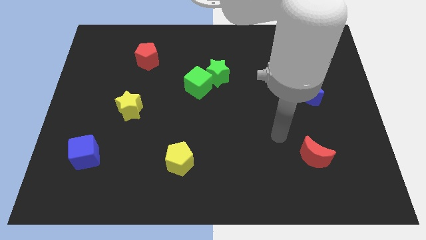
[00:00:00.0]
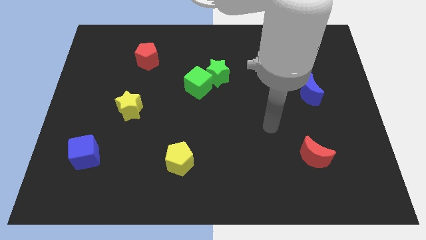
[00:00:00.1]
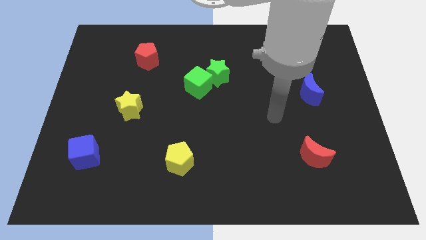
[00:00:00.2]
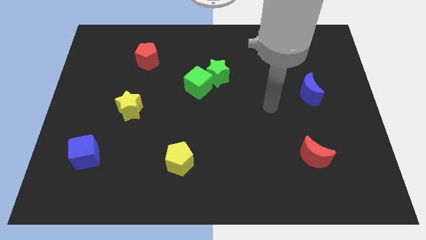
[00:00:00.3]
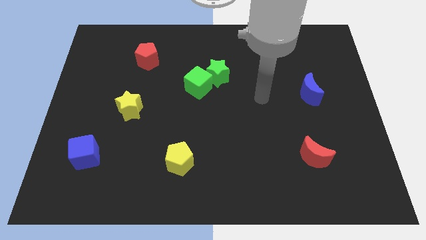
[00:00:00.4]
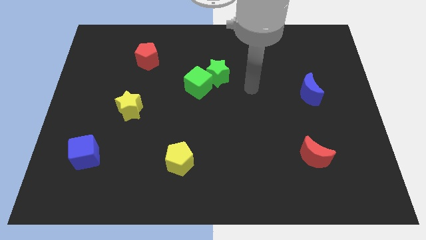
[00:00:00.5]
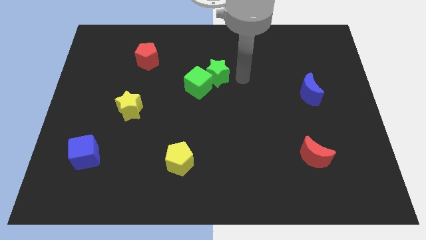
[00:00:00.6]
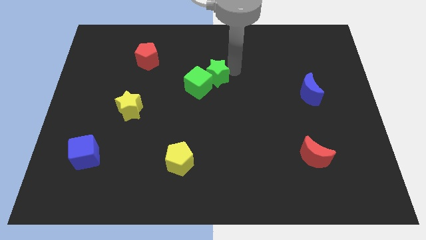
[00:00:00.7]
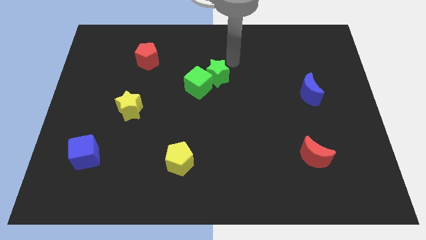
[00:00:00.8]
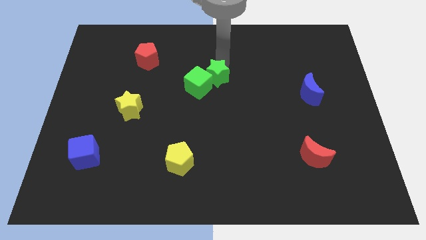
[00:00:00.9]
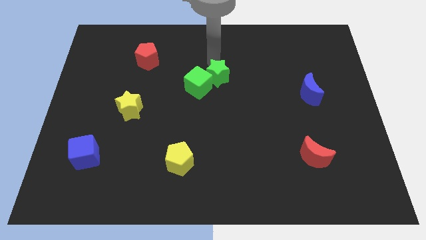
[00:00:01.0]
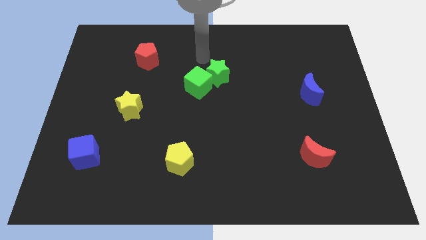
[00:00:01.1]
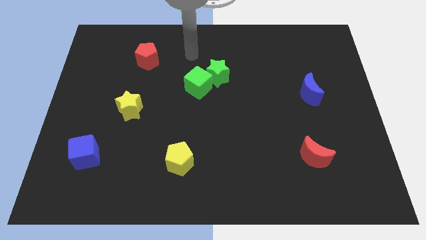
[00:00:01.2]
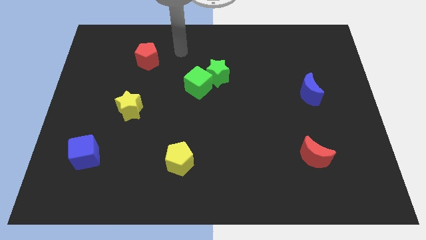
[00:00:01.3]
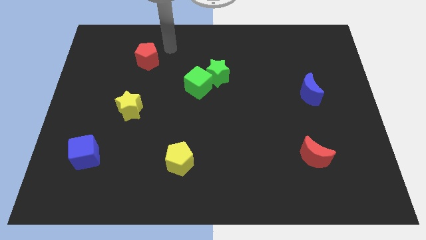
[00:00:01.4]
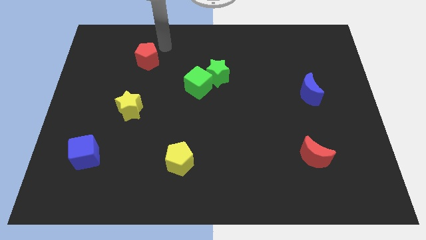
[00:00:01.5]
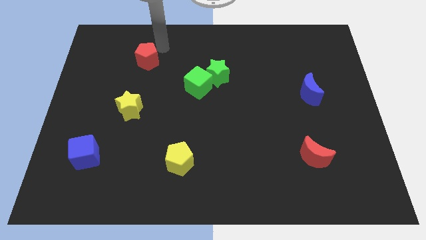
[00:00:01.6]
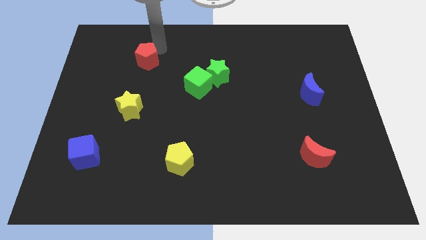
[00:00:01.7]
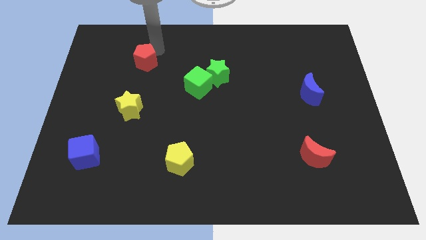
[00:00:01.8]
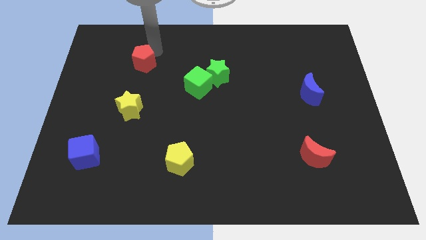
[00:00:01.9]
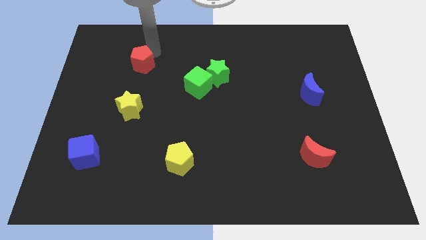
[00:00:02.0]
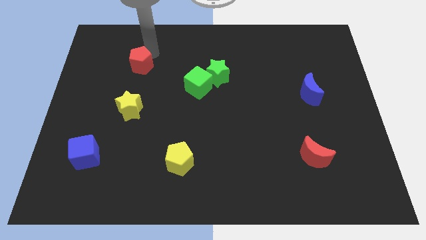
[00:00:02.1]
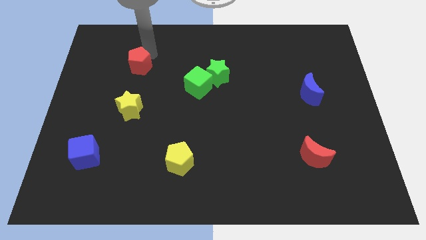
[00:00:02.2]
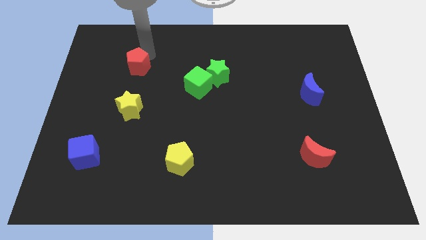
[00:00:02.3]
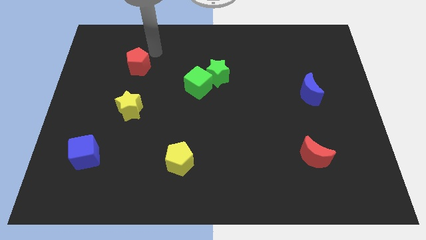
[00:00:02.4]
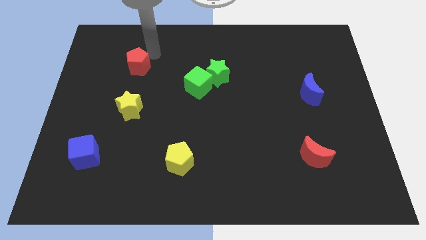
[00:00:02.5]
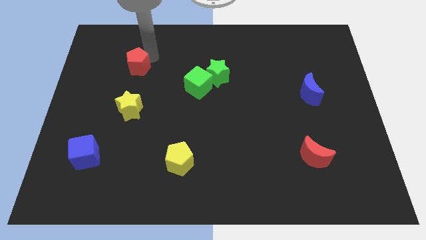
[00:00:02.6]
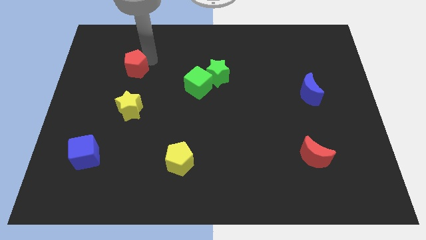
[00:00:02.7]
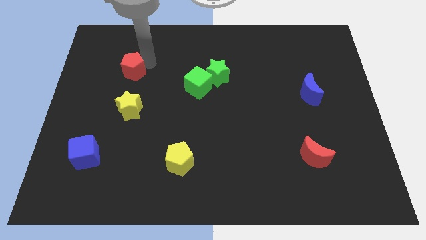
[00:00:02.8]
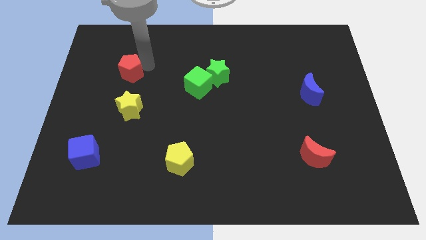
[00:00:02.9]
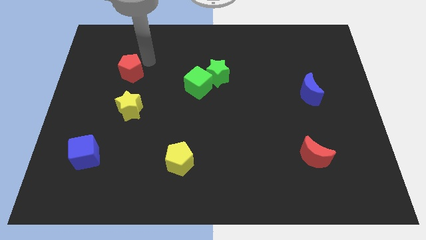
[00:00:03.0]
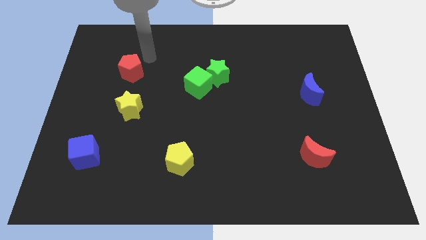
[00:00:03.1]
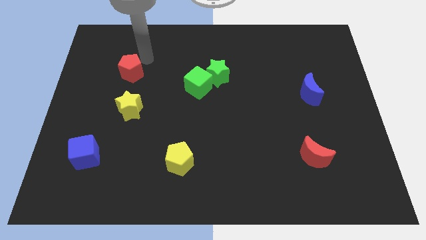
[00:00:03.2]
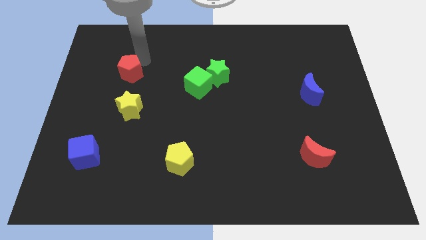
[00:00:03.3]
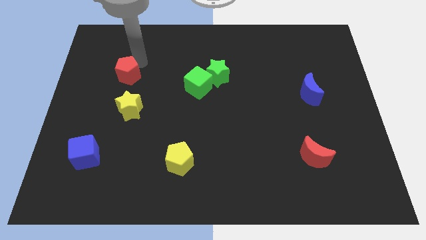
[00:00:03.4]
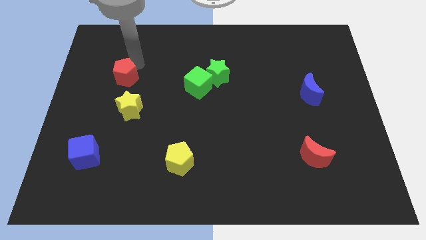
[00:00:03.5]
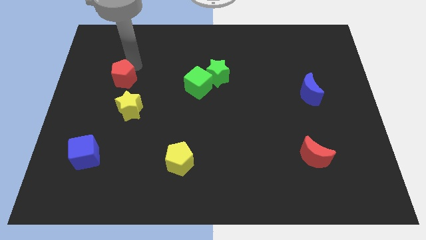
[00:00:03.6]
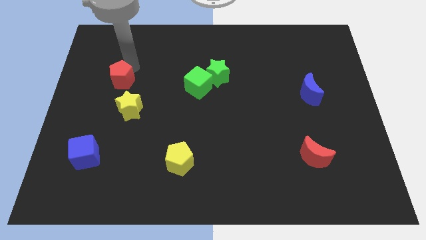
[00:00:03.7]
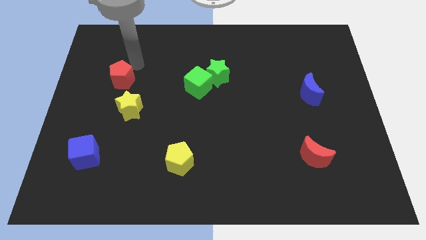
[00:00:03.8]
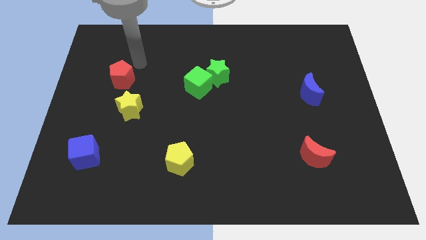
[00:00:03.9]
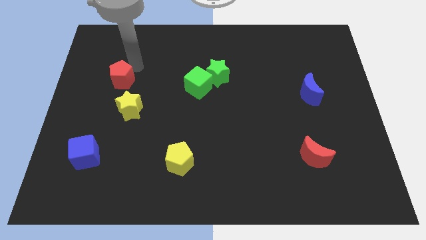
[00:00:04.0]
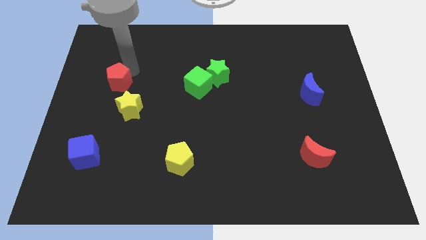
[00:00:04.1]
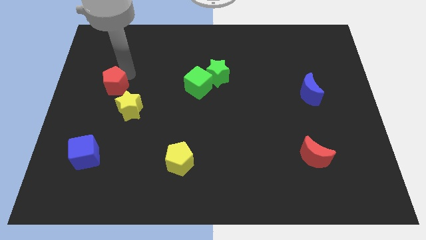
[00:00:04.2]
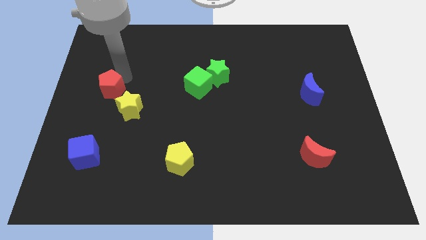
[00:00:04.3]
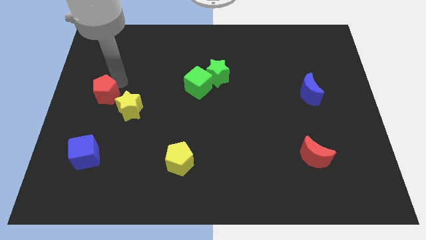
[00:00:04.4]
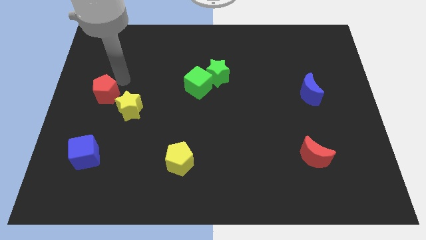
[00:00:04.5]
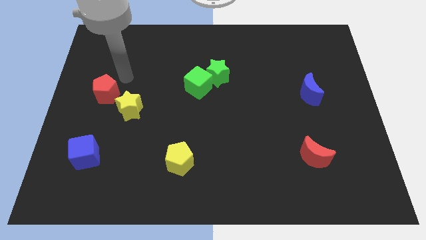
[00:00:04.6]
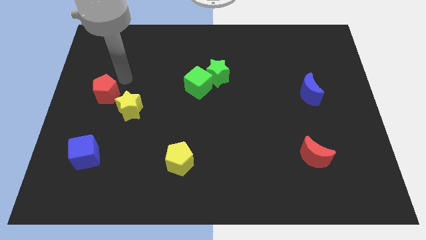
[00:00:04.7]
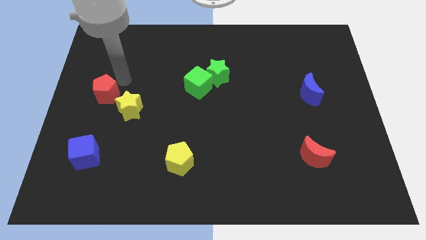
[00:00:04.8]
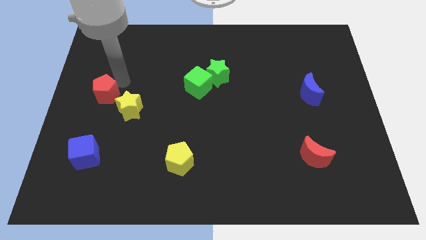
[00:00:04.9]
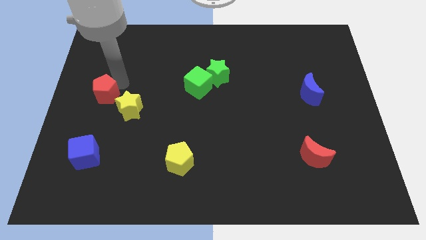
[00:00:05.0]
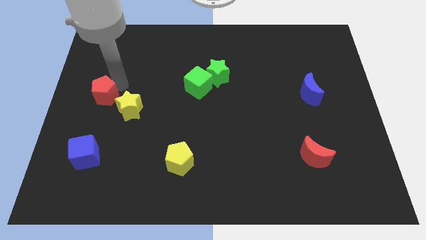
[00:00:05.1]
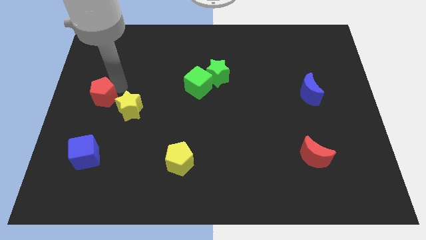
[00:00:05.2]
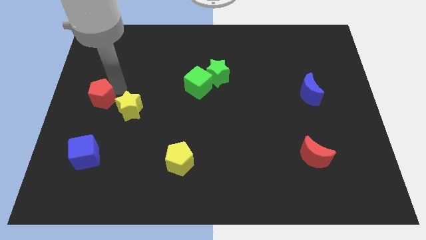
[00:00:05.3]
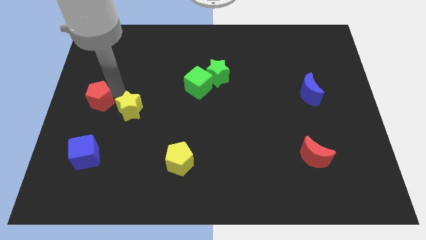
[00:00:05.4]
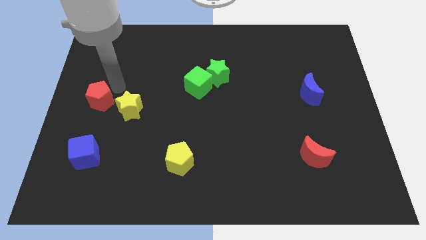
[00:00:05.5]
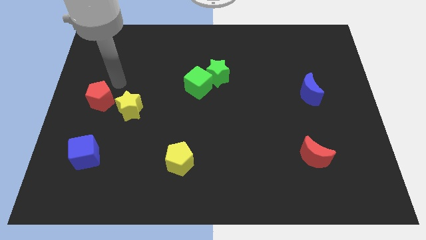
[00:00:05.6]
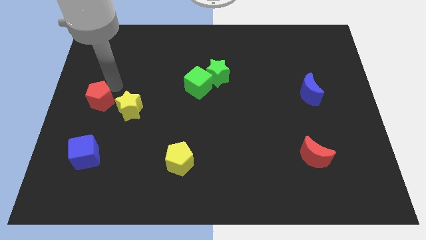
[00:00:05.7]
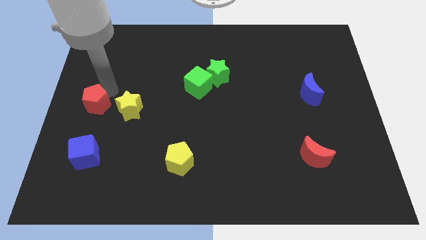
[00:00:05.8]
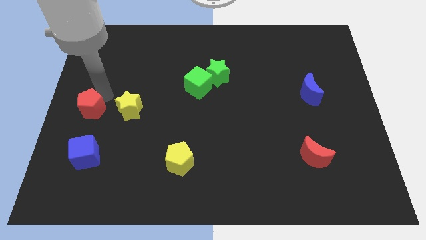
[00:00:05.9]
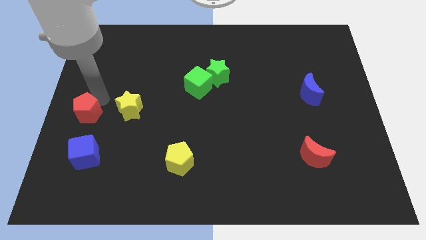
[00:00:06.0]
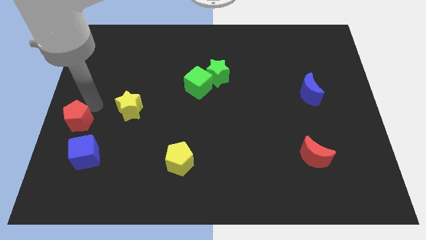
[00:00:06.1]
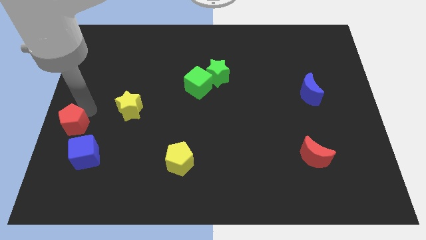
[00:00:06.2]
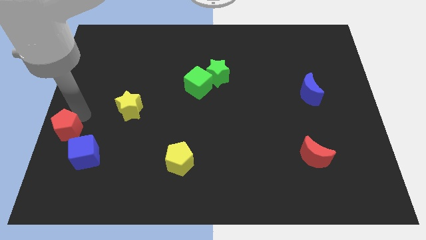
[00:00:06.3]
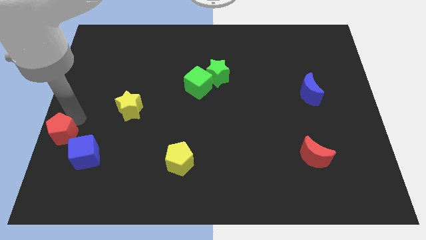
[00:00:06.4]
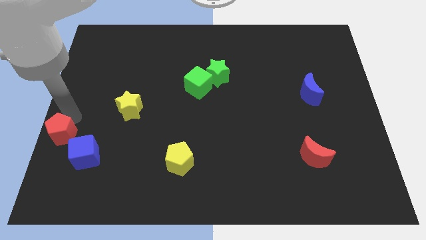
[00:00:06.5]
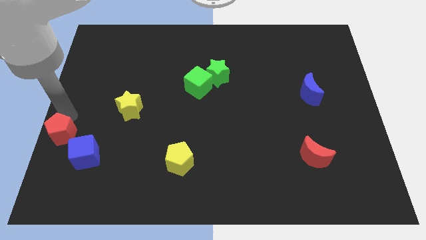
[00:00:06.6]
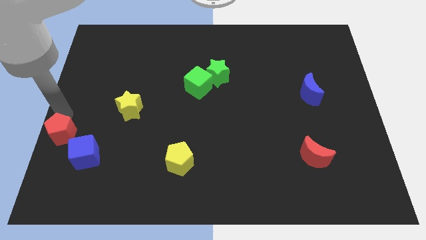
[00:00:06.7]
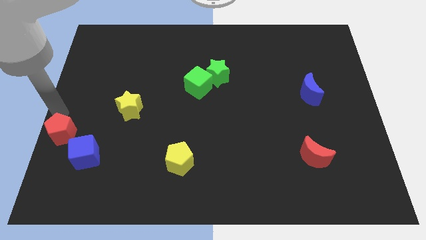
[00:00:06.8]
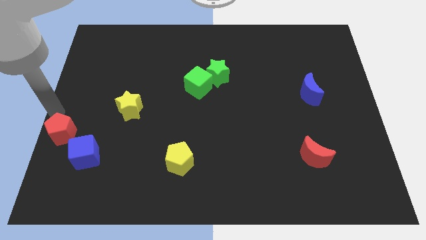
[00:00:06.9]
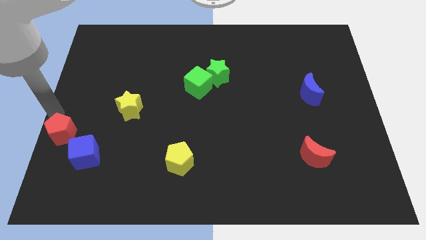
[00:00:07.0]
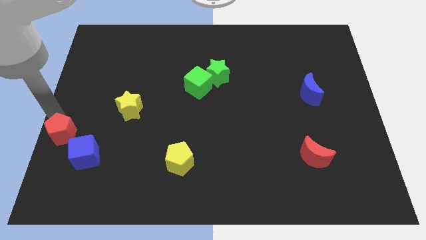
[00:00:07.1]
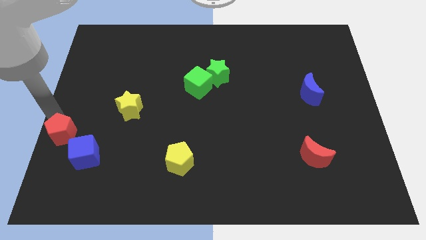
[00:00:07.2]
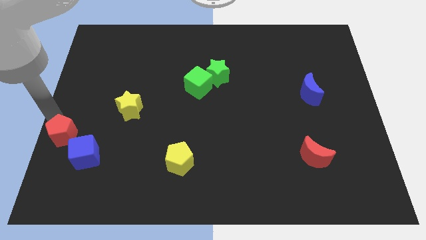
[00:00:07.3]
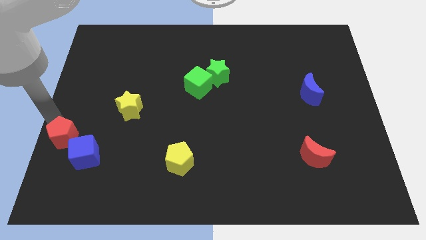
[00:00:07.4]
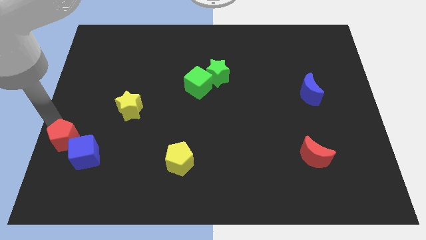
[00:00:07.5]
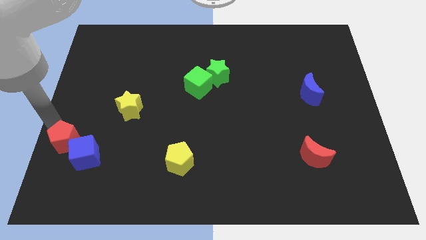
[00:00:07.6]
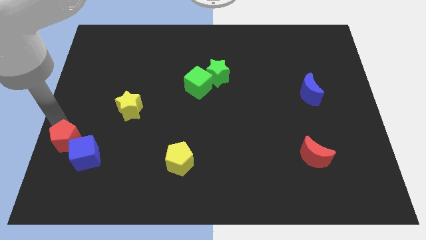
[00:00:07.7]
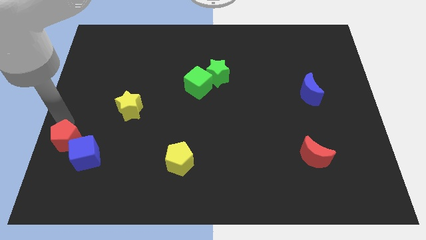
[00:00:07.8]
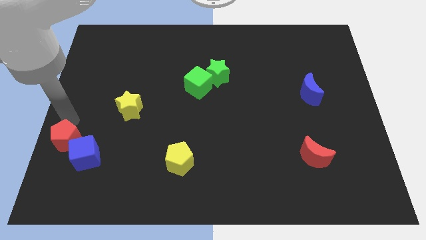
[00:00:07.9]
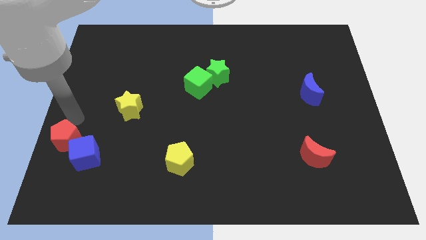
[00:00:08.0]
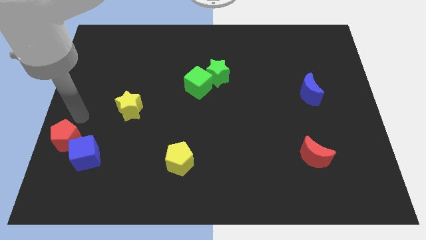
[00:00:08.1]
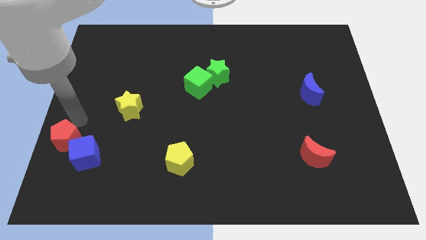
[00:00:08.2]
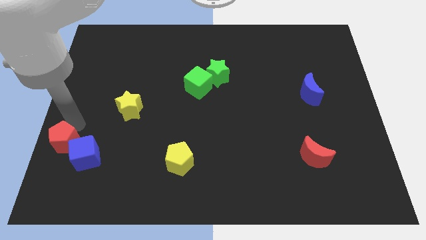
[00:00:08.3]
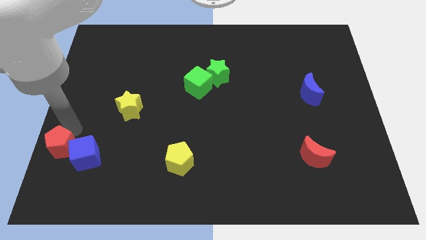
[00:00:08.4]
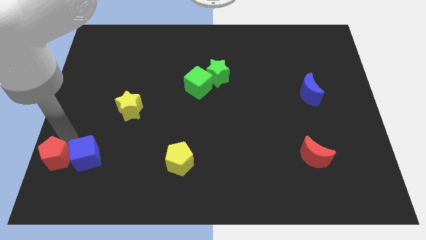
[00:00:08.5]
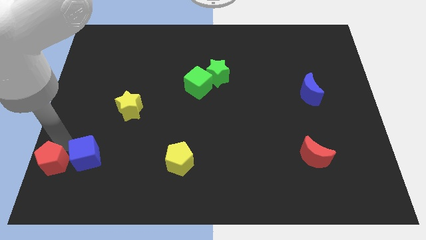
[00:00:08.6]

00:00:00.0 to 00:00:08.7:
slide the red pentagon to the bottom left
